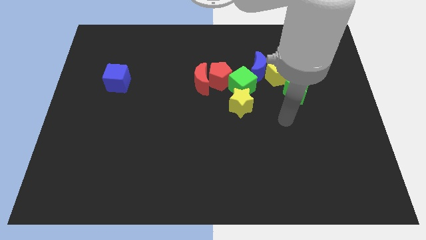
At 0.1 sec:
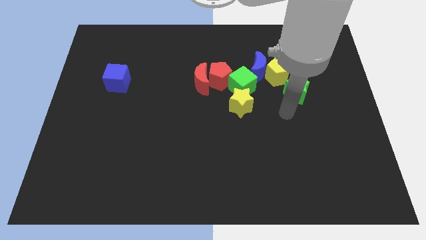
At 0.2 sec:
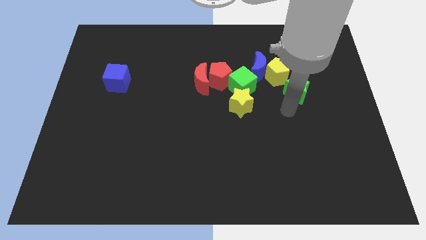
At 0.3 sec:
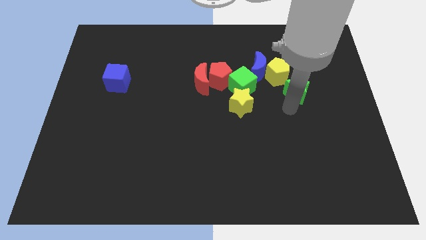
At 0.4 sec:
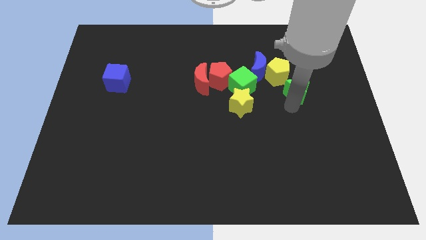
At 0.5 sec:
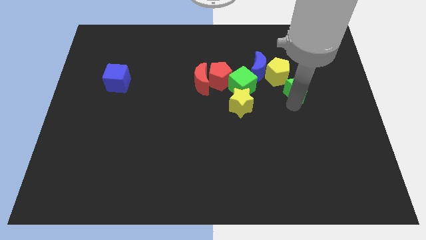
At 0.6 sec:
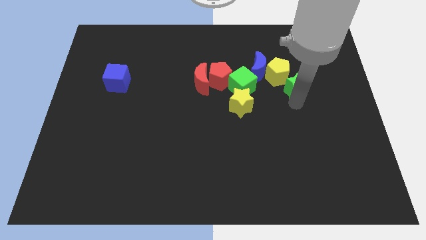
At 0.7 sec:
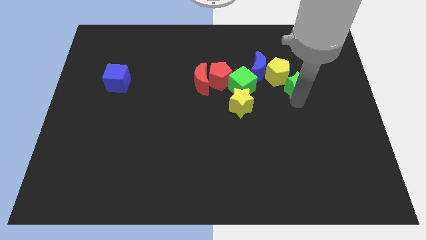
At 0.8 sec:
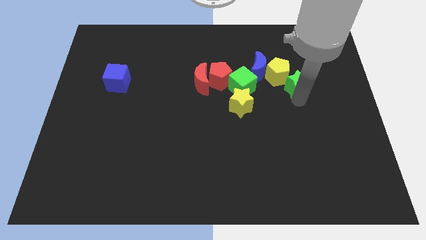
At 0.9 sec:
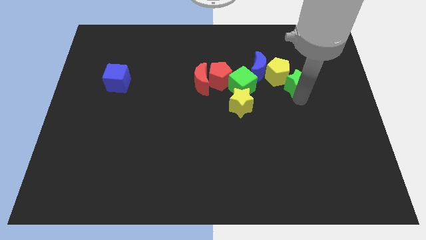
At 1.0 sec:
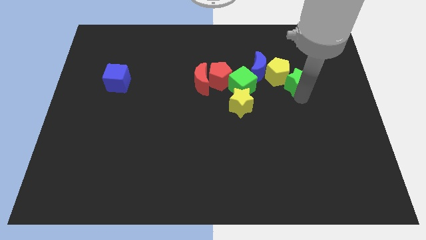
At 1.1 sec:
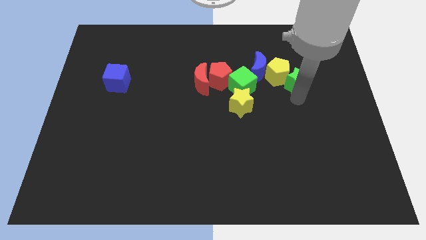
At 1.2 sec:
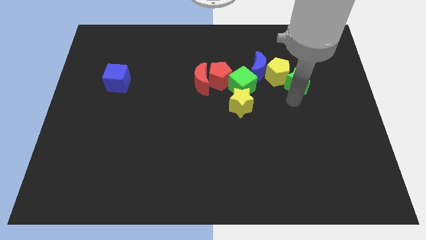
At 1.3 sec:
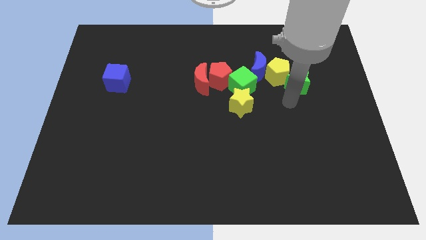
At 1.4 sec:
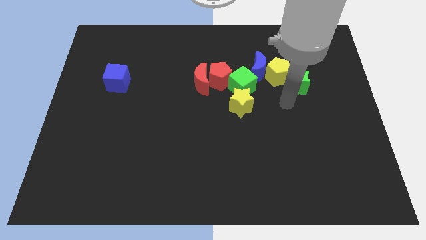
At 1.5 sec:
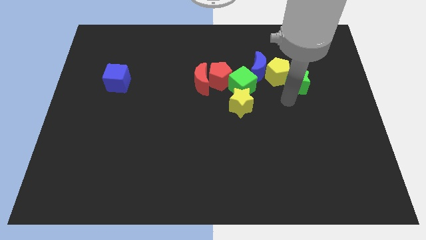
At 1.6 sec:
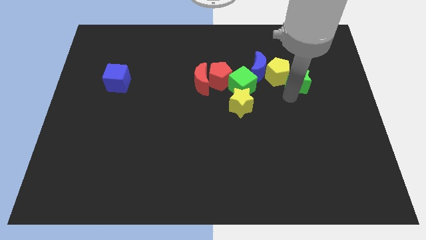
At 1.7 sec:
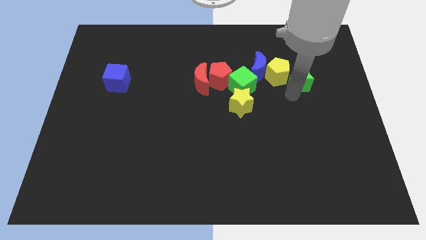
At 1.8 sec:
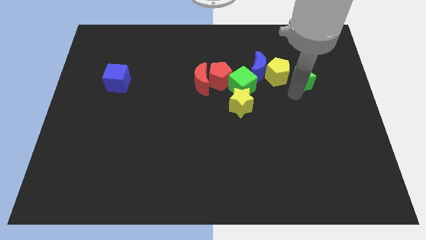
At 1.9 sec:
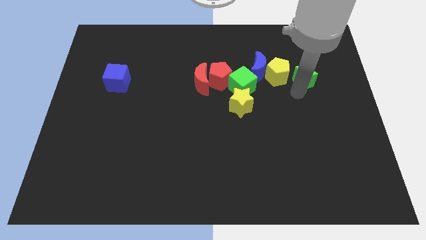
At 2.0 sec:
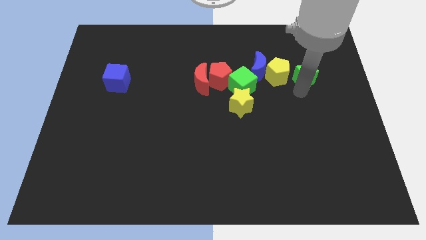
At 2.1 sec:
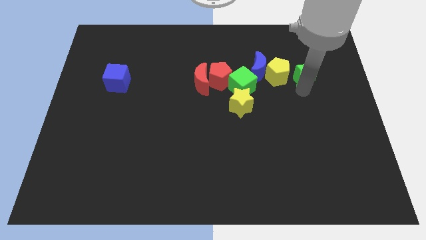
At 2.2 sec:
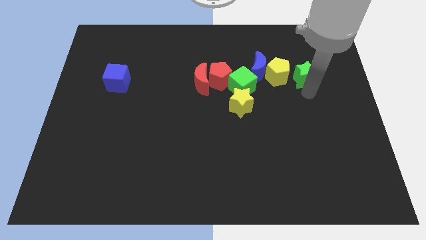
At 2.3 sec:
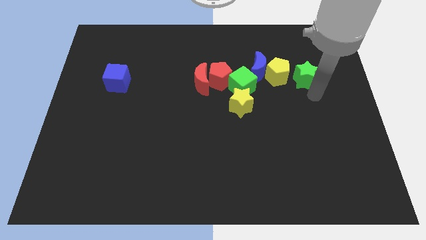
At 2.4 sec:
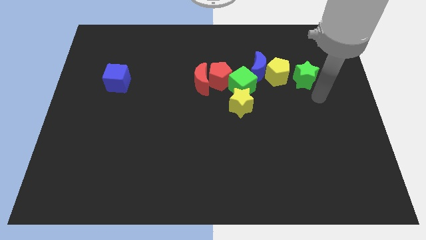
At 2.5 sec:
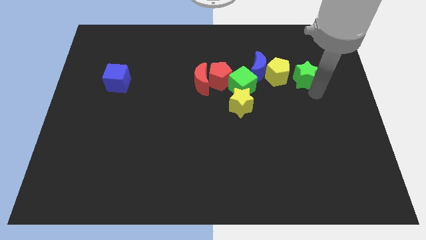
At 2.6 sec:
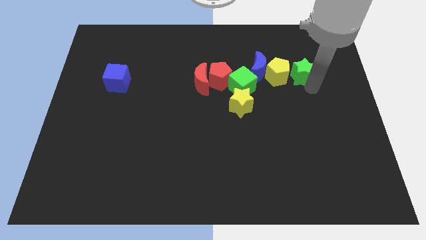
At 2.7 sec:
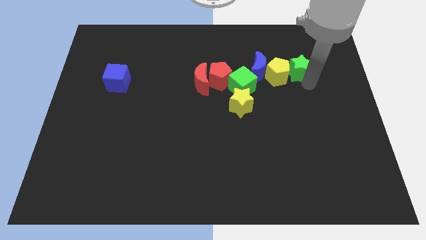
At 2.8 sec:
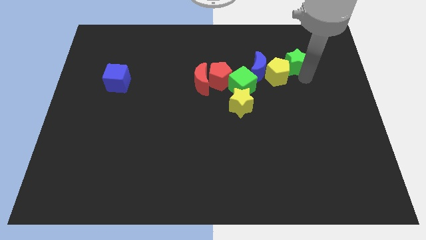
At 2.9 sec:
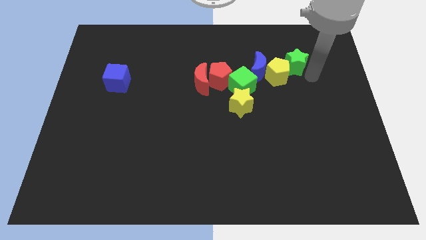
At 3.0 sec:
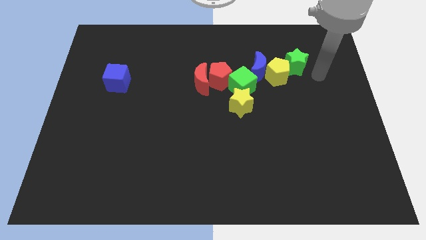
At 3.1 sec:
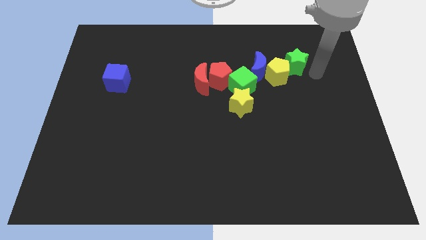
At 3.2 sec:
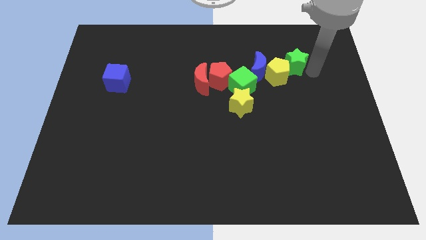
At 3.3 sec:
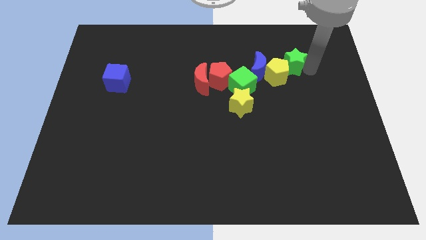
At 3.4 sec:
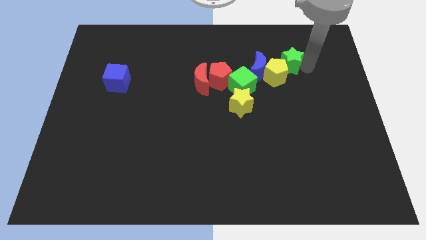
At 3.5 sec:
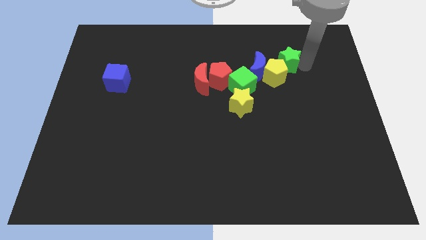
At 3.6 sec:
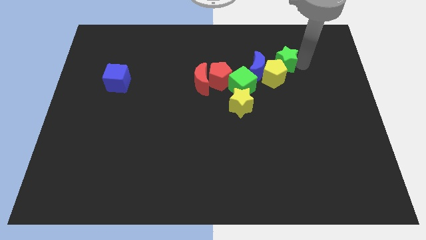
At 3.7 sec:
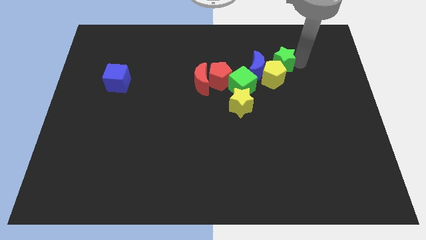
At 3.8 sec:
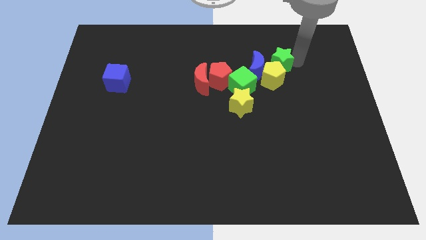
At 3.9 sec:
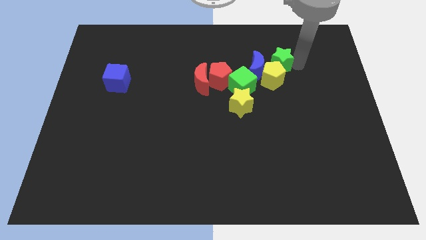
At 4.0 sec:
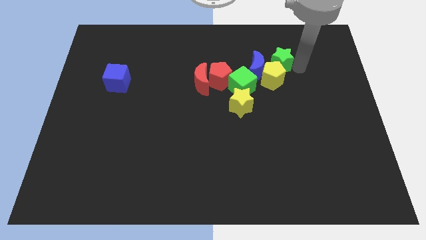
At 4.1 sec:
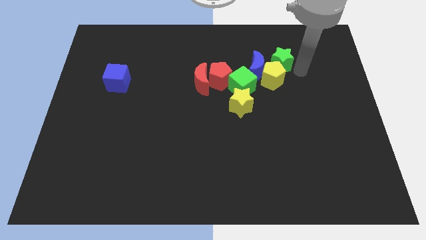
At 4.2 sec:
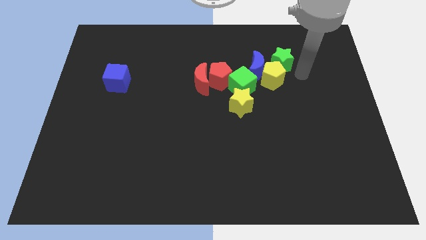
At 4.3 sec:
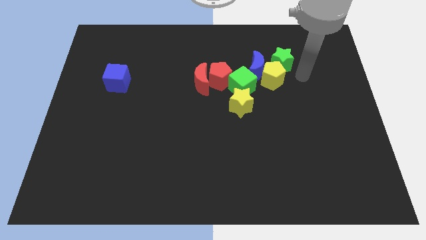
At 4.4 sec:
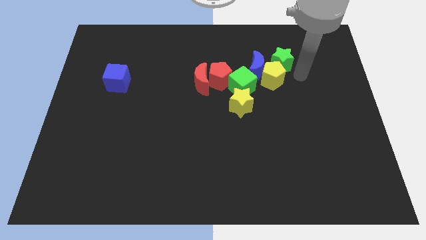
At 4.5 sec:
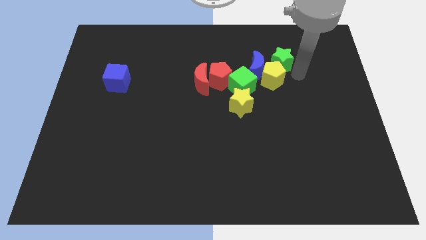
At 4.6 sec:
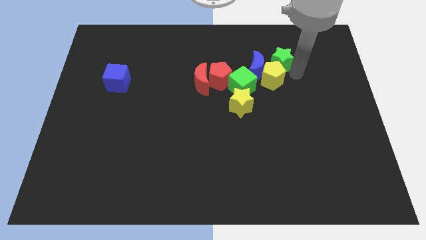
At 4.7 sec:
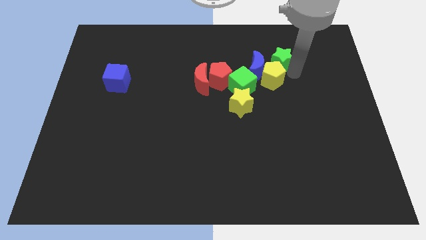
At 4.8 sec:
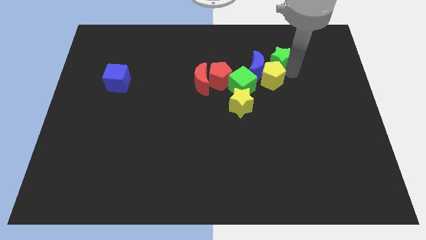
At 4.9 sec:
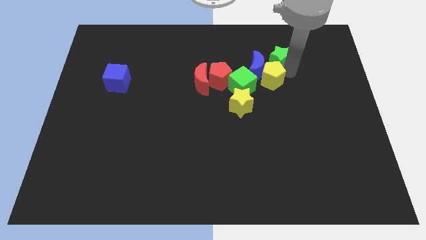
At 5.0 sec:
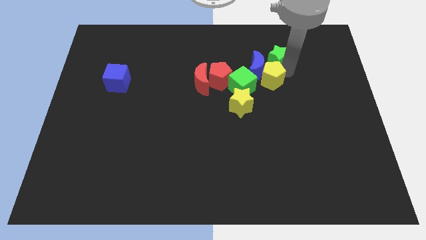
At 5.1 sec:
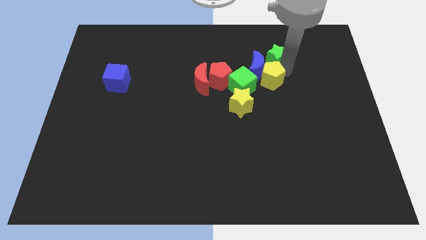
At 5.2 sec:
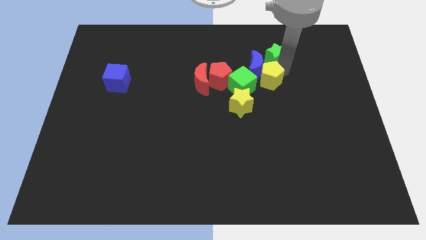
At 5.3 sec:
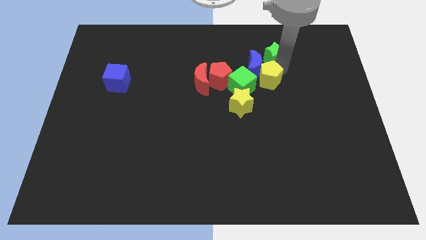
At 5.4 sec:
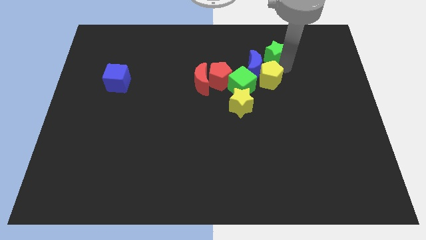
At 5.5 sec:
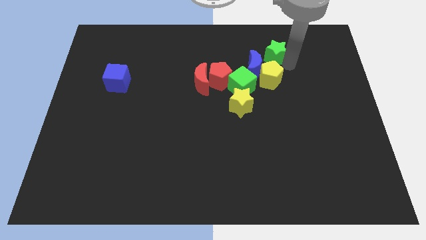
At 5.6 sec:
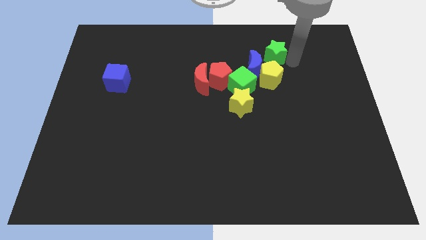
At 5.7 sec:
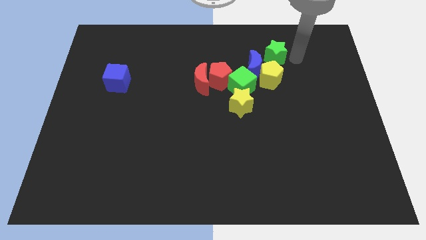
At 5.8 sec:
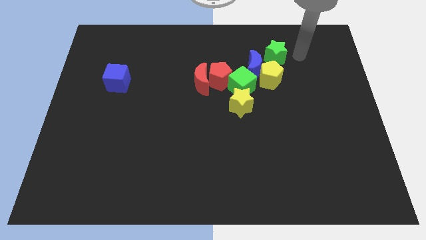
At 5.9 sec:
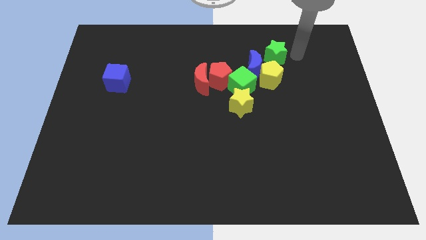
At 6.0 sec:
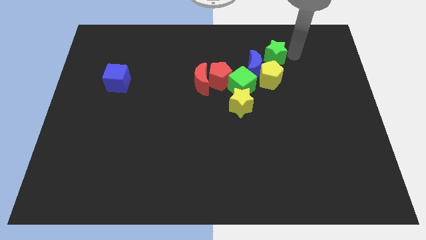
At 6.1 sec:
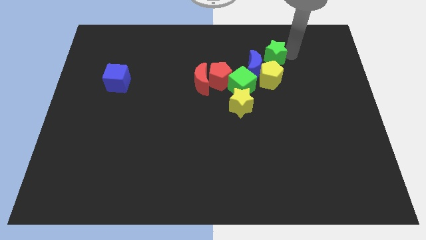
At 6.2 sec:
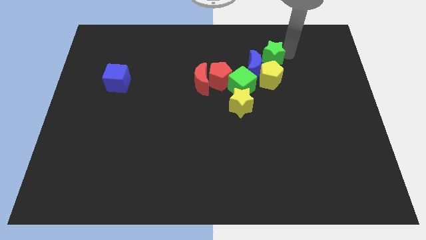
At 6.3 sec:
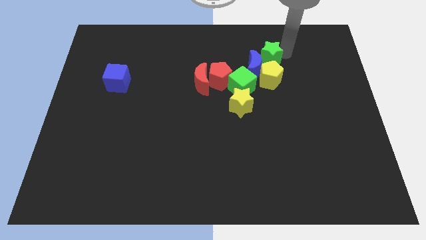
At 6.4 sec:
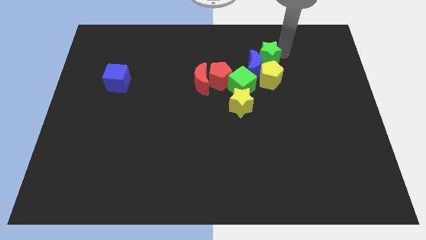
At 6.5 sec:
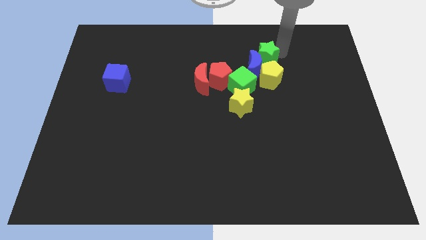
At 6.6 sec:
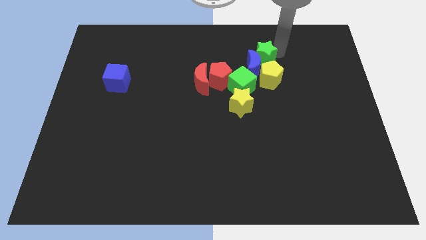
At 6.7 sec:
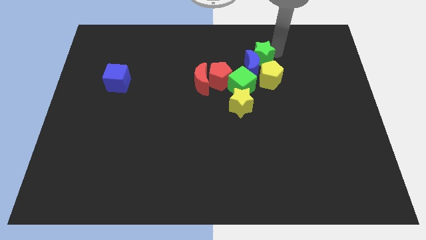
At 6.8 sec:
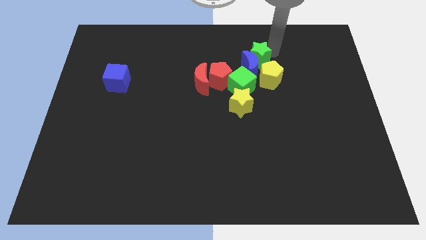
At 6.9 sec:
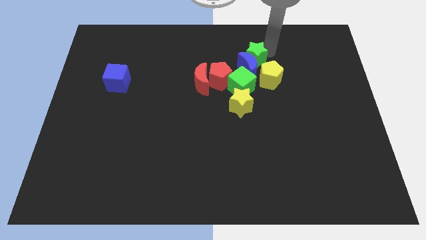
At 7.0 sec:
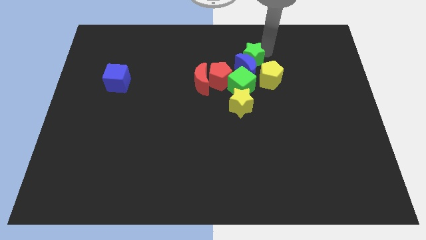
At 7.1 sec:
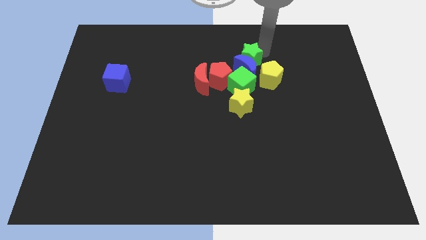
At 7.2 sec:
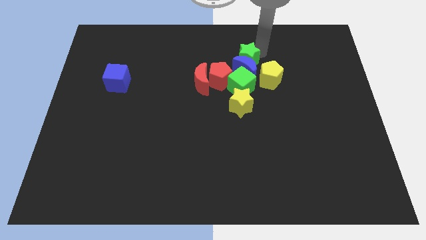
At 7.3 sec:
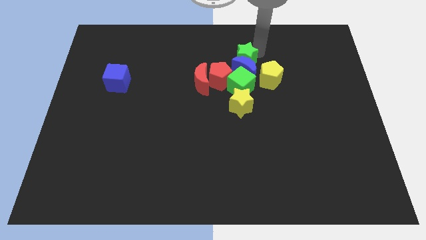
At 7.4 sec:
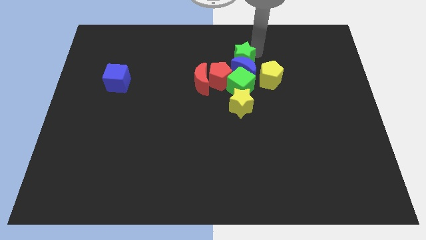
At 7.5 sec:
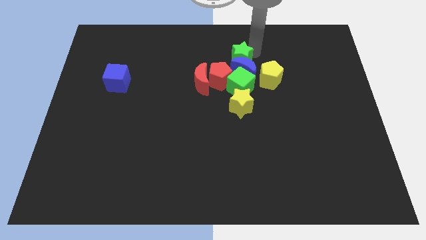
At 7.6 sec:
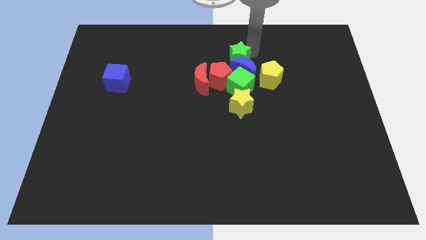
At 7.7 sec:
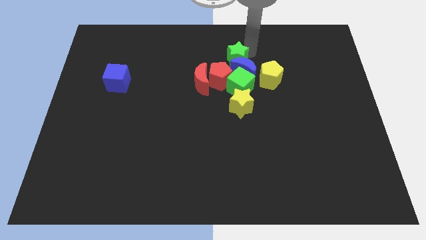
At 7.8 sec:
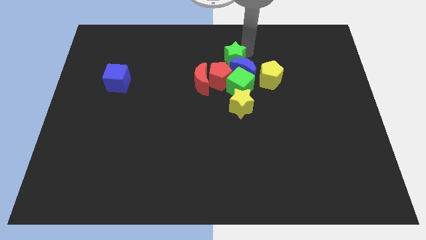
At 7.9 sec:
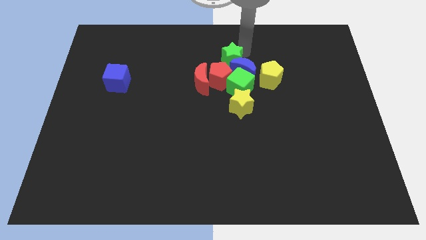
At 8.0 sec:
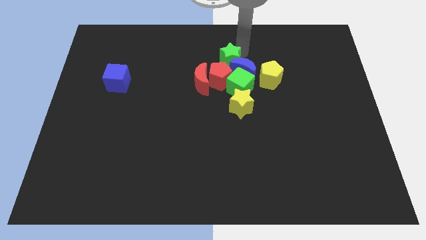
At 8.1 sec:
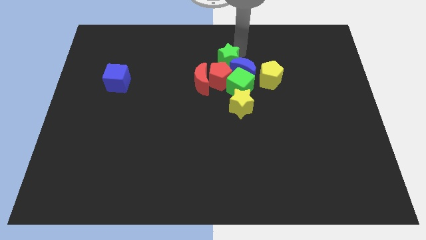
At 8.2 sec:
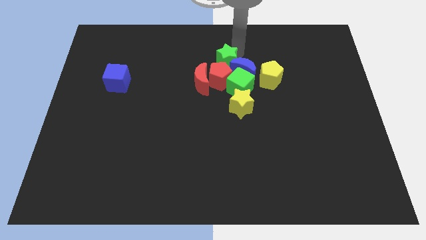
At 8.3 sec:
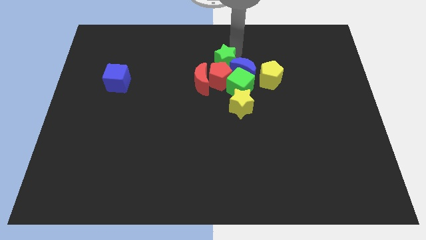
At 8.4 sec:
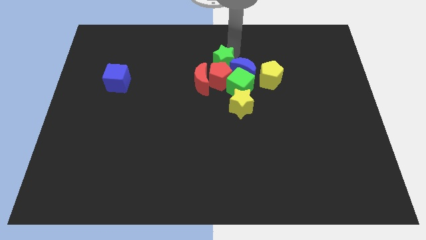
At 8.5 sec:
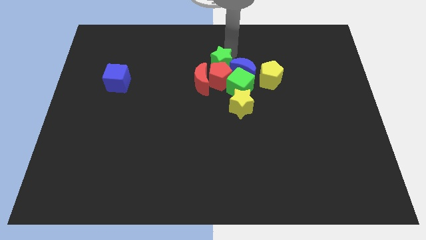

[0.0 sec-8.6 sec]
slide the green star to the top left of the red pentagon
